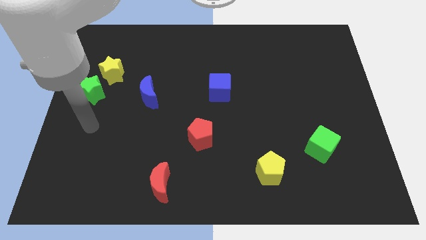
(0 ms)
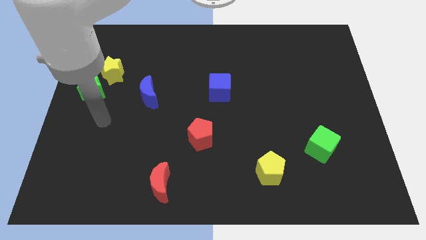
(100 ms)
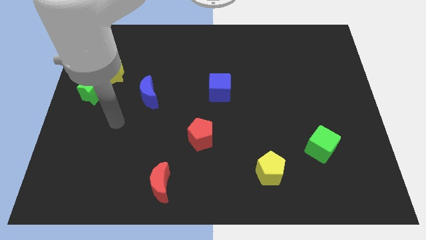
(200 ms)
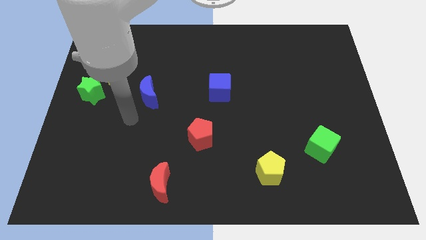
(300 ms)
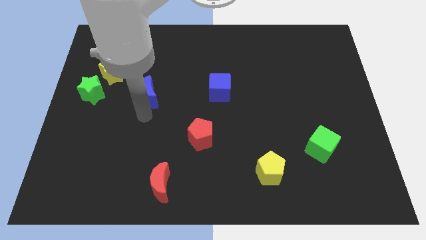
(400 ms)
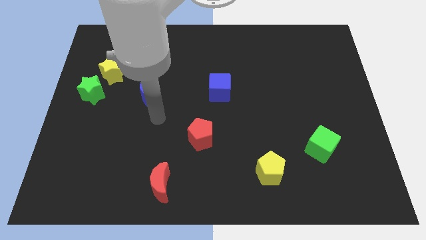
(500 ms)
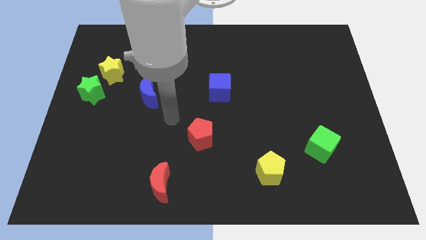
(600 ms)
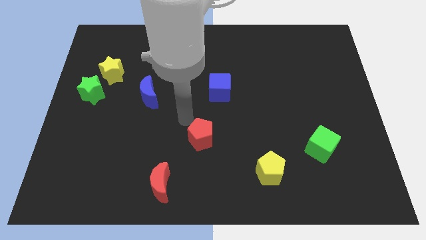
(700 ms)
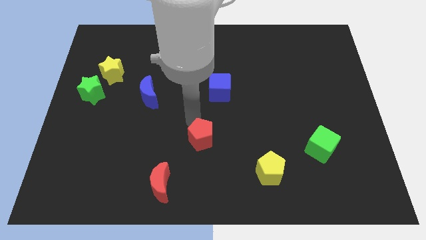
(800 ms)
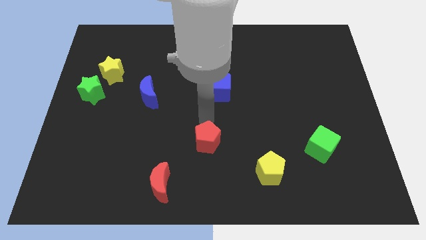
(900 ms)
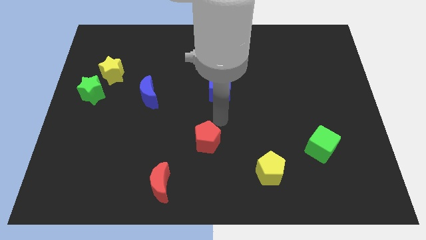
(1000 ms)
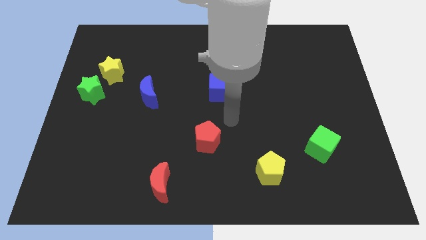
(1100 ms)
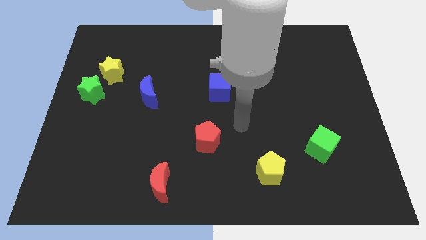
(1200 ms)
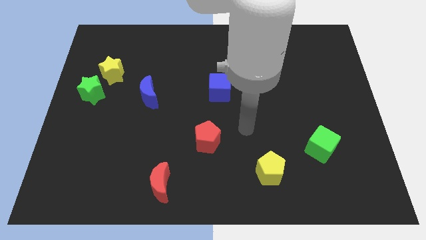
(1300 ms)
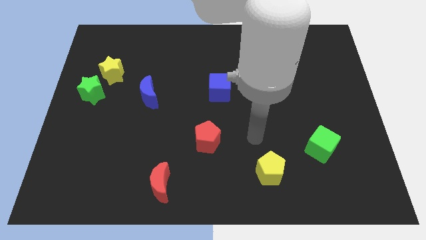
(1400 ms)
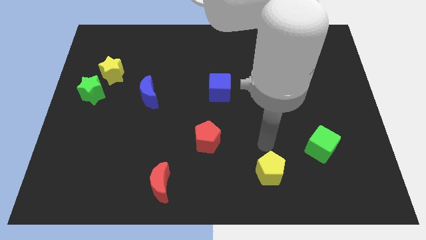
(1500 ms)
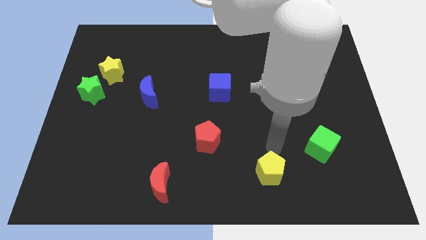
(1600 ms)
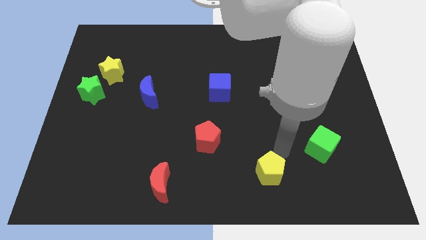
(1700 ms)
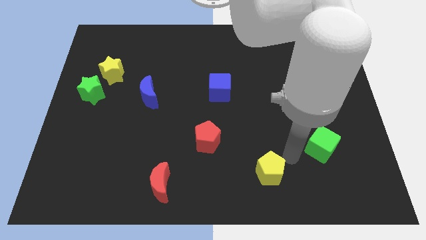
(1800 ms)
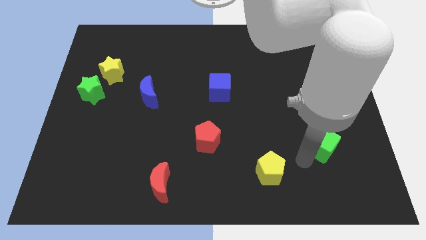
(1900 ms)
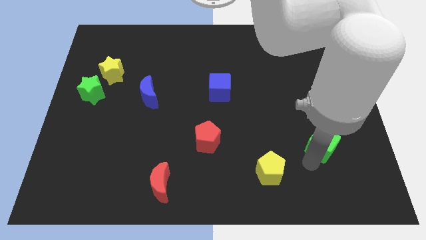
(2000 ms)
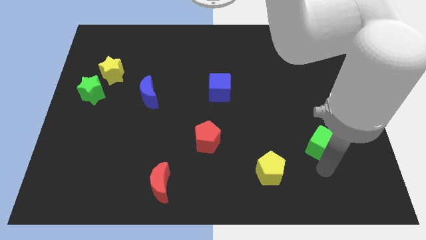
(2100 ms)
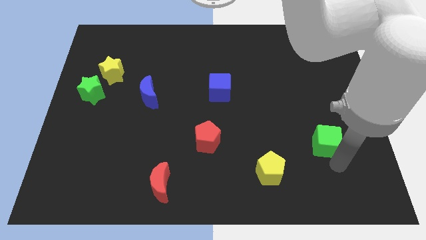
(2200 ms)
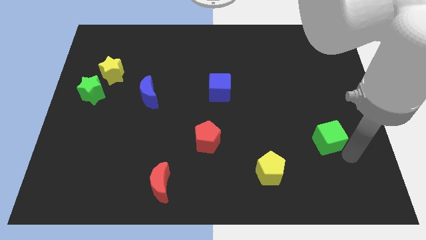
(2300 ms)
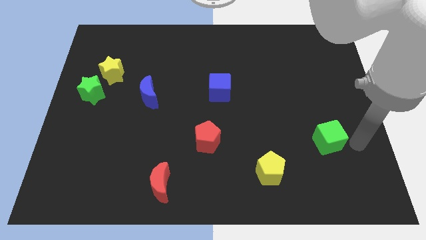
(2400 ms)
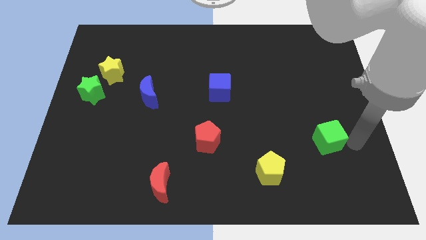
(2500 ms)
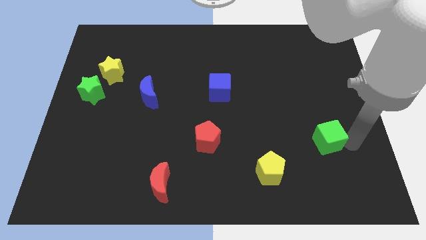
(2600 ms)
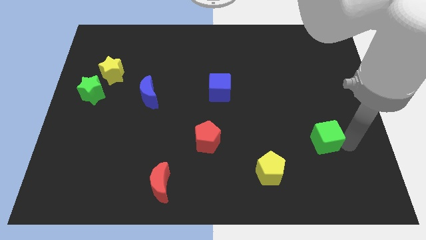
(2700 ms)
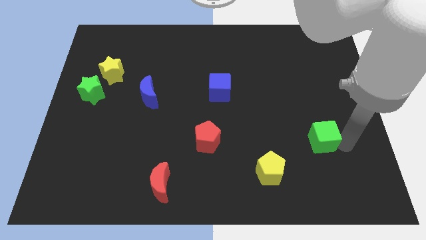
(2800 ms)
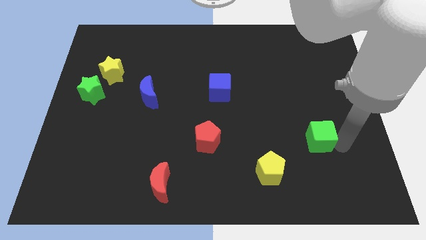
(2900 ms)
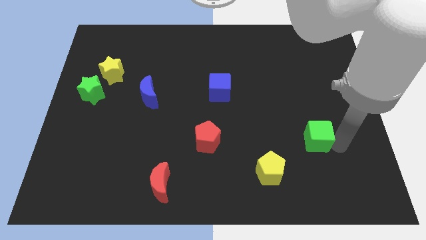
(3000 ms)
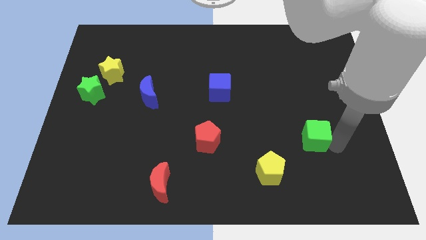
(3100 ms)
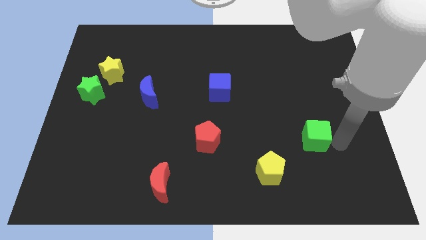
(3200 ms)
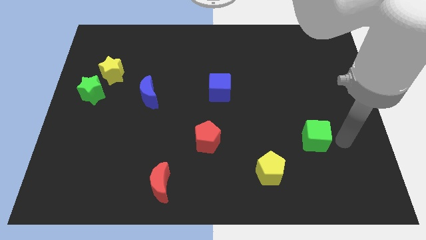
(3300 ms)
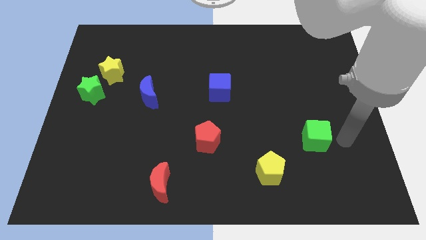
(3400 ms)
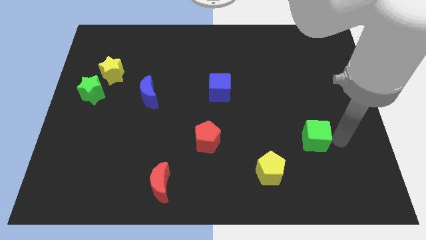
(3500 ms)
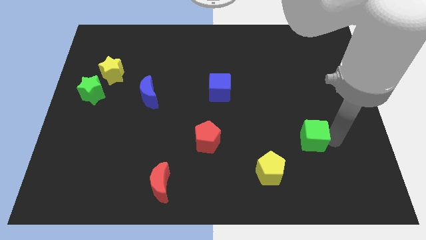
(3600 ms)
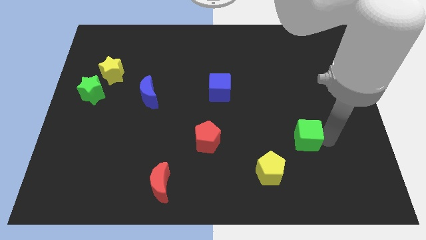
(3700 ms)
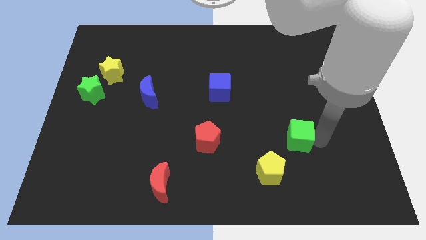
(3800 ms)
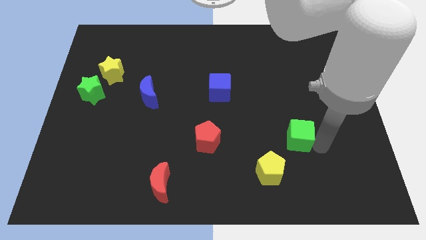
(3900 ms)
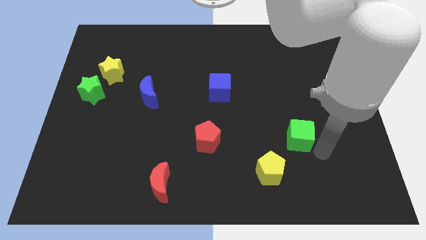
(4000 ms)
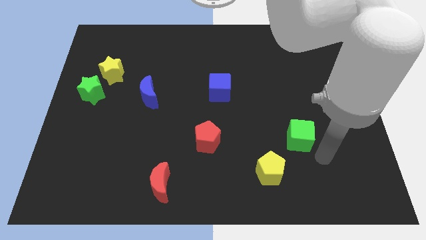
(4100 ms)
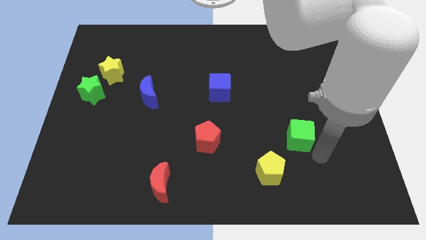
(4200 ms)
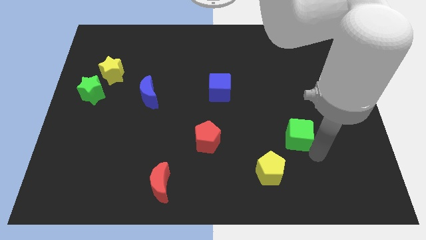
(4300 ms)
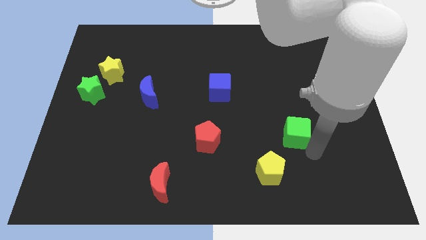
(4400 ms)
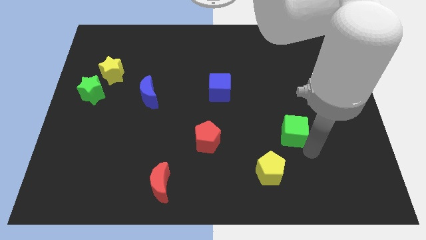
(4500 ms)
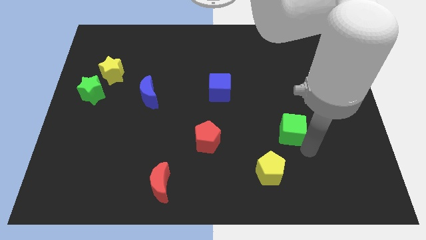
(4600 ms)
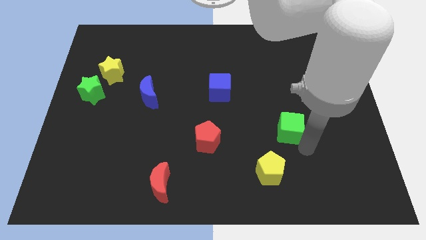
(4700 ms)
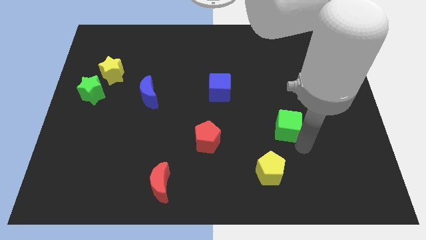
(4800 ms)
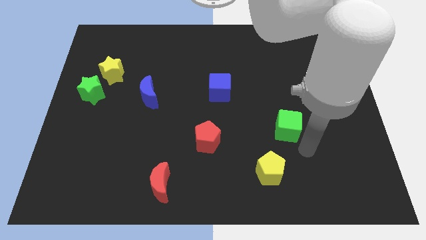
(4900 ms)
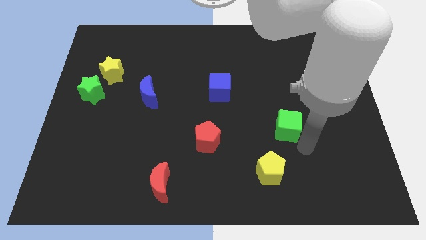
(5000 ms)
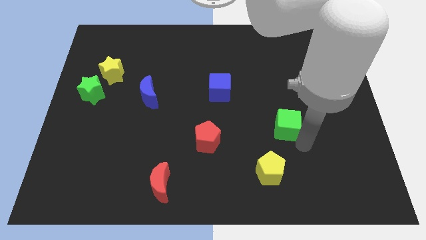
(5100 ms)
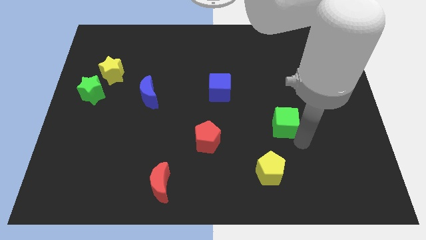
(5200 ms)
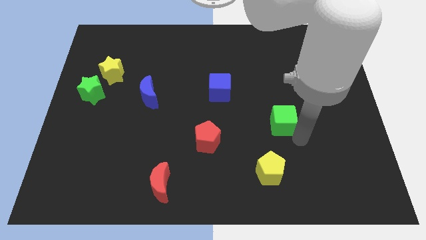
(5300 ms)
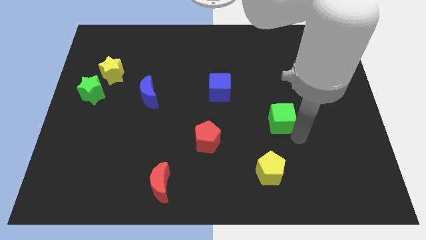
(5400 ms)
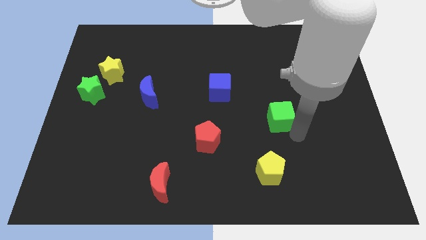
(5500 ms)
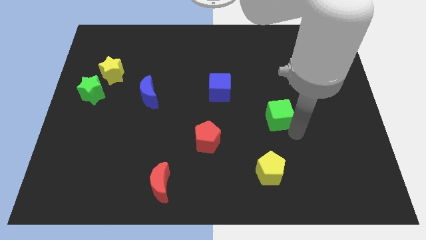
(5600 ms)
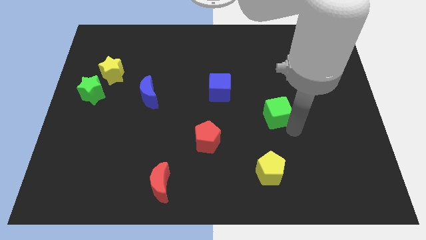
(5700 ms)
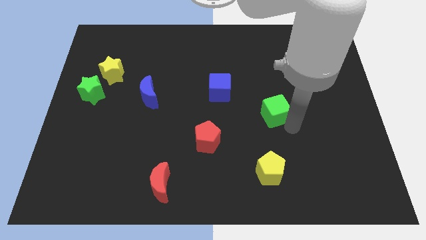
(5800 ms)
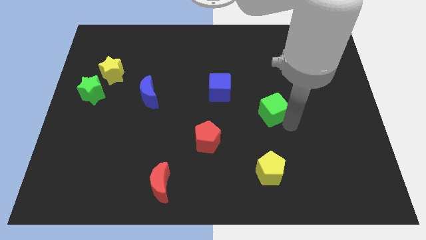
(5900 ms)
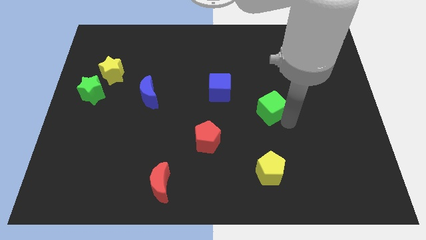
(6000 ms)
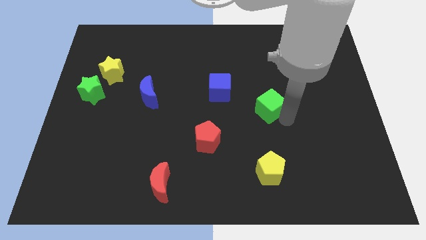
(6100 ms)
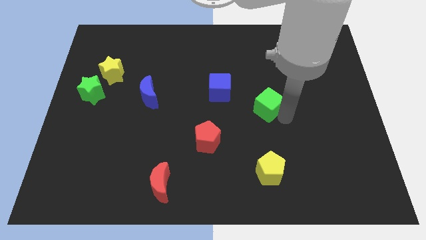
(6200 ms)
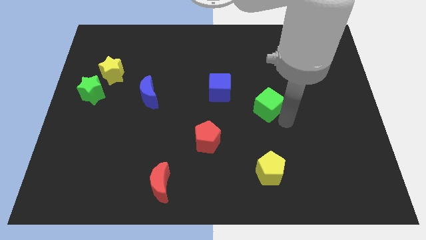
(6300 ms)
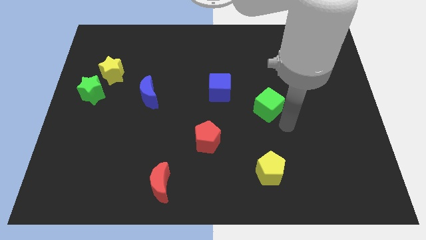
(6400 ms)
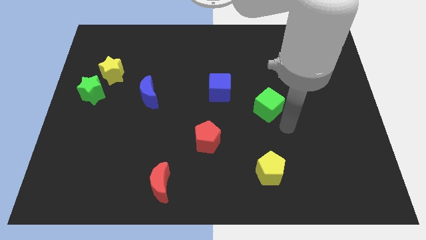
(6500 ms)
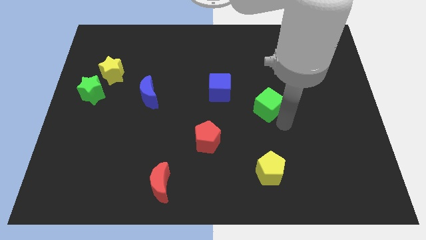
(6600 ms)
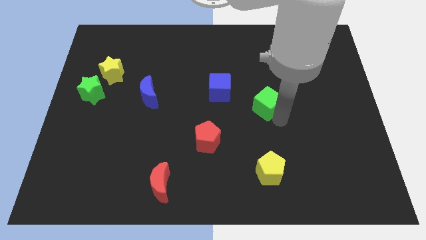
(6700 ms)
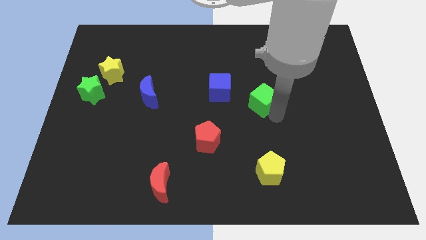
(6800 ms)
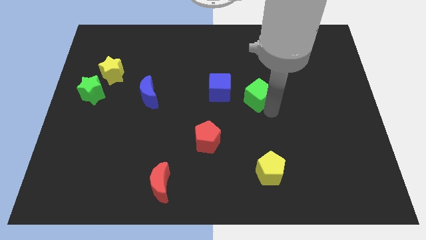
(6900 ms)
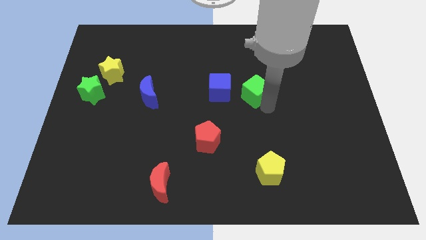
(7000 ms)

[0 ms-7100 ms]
move the green cube up and to the left

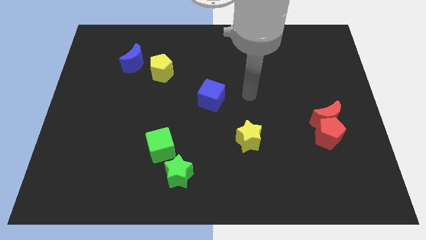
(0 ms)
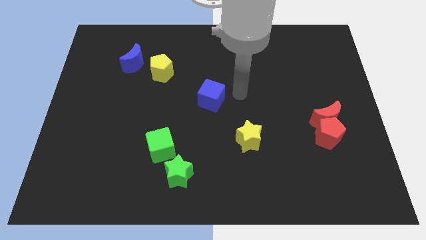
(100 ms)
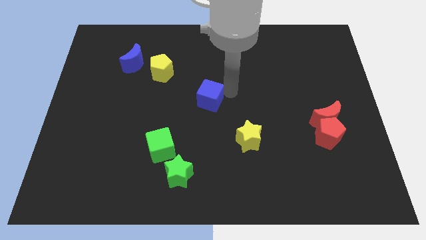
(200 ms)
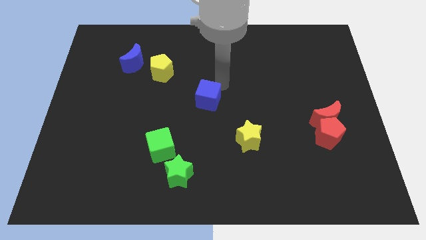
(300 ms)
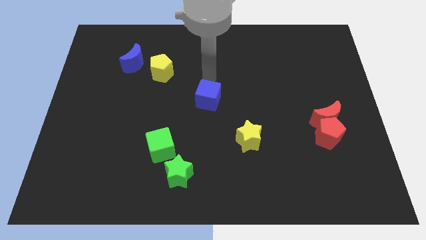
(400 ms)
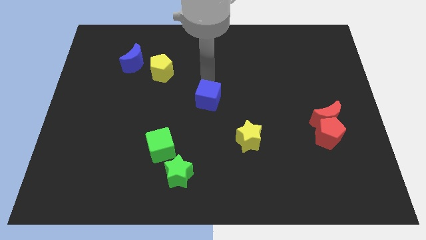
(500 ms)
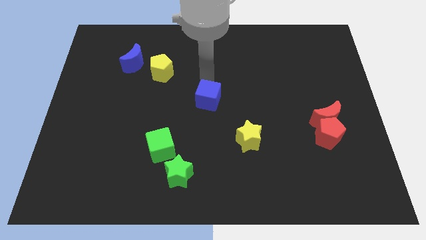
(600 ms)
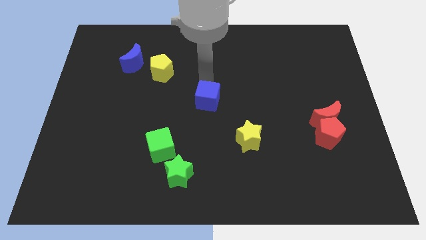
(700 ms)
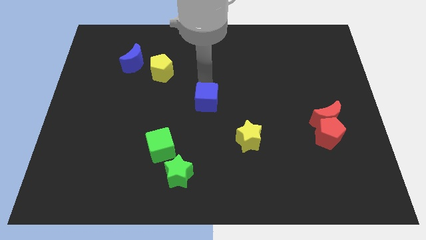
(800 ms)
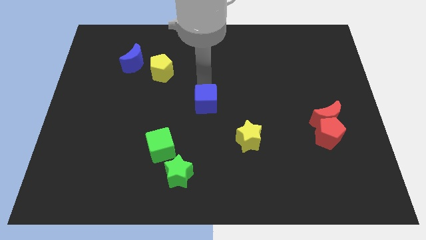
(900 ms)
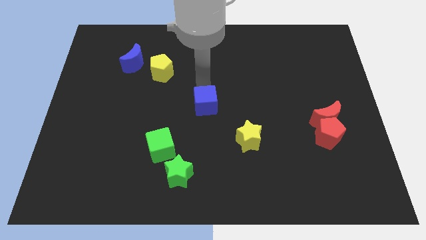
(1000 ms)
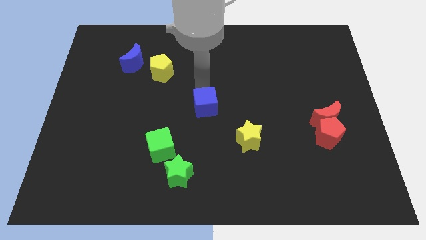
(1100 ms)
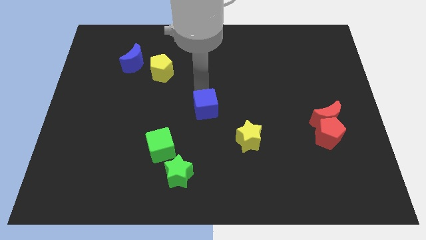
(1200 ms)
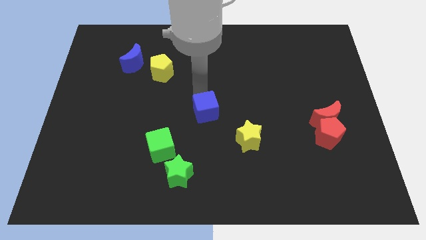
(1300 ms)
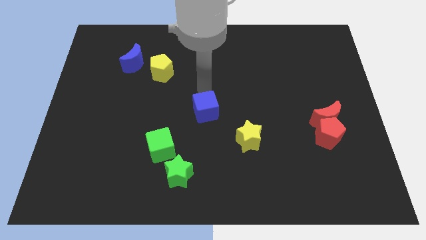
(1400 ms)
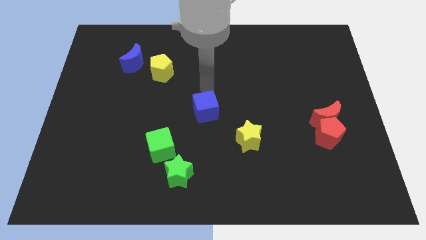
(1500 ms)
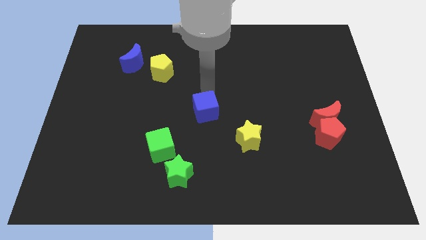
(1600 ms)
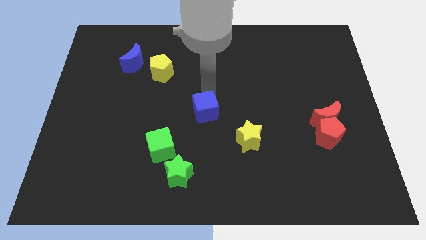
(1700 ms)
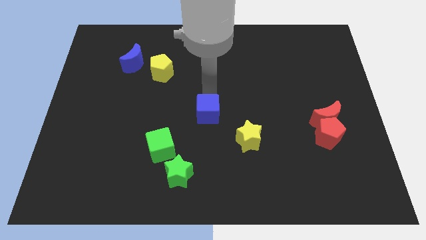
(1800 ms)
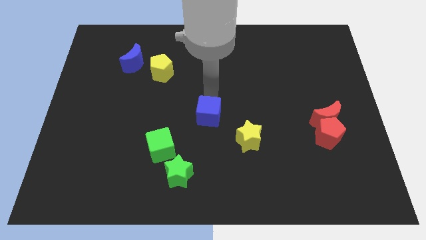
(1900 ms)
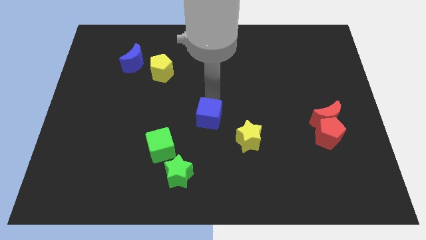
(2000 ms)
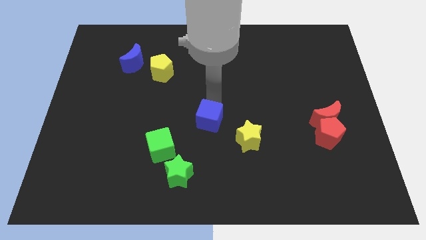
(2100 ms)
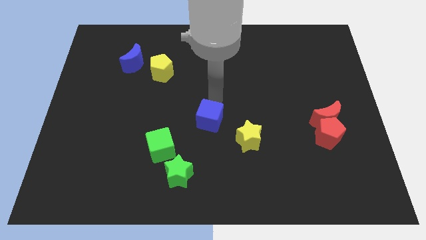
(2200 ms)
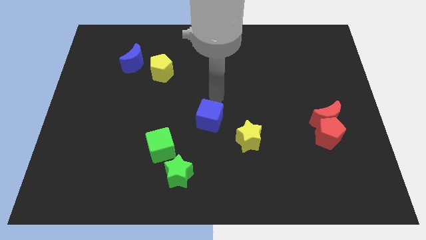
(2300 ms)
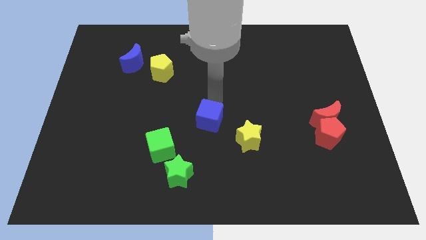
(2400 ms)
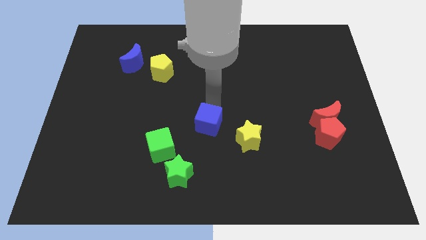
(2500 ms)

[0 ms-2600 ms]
move the blue cube downwards a little
